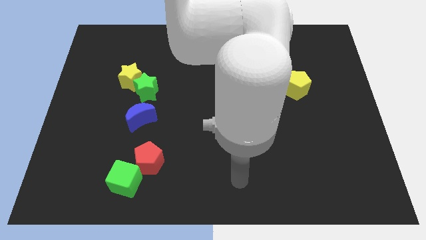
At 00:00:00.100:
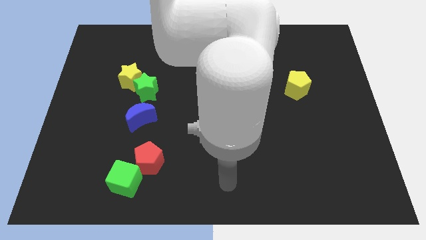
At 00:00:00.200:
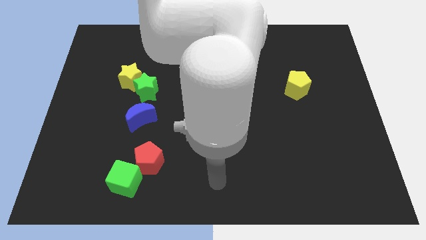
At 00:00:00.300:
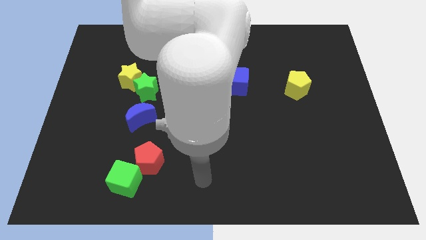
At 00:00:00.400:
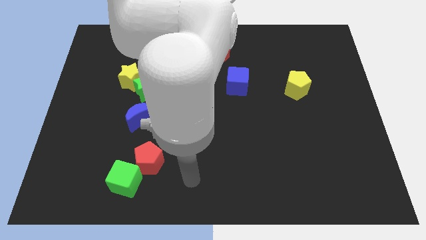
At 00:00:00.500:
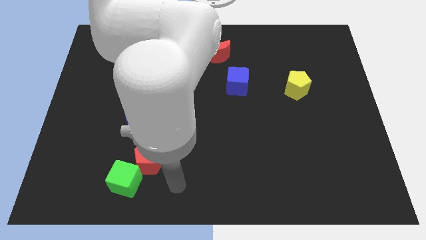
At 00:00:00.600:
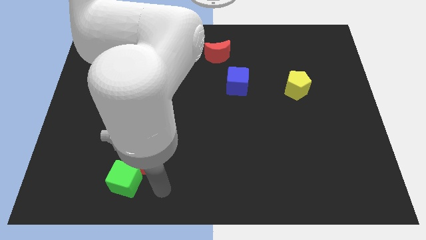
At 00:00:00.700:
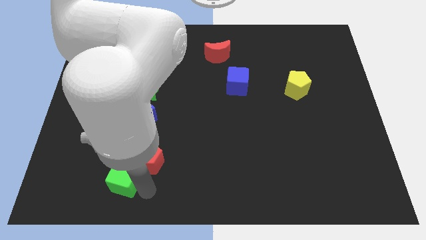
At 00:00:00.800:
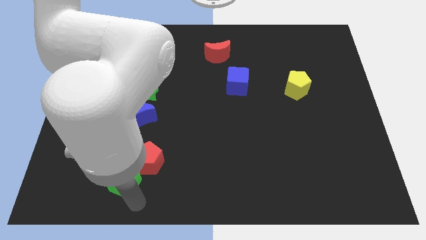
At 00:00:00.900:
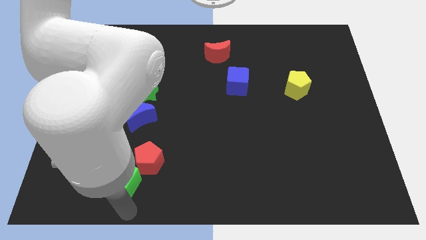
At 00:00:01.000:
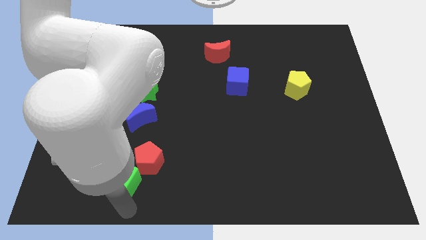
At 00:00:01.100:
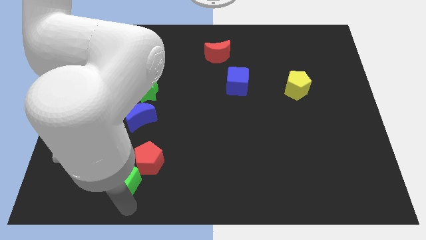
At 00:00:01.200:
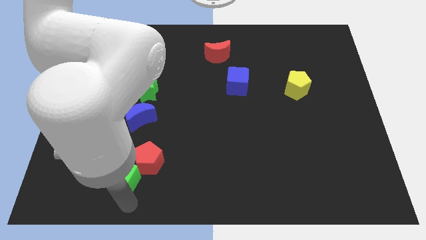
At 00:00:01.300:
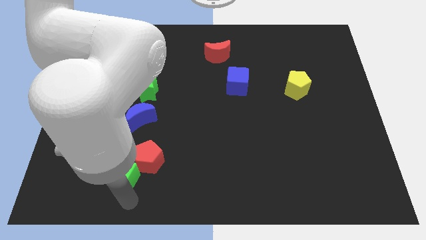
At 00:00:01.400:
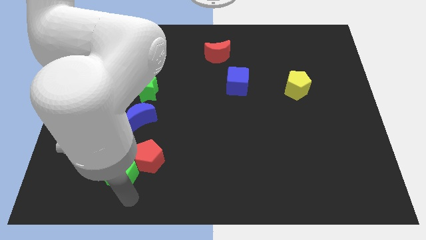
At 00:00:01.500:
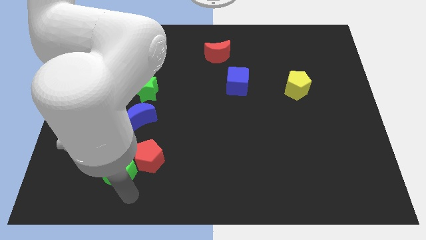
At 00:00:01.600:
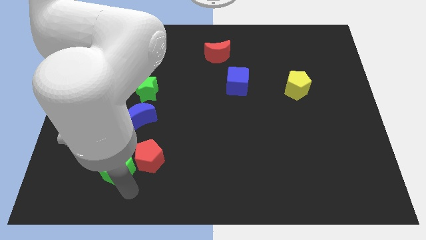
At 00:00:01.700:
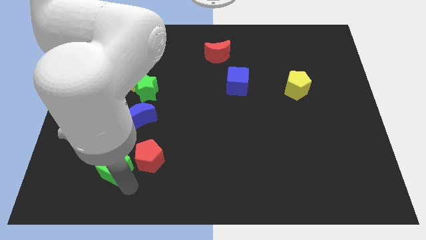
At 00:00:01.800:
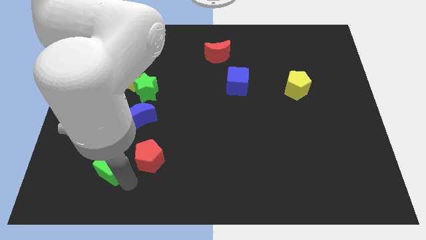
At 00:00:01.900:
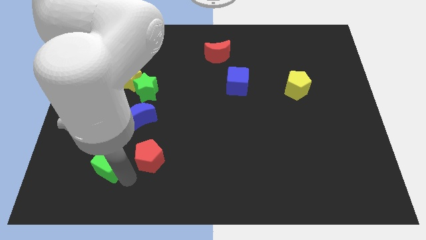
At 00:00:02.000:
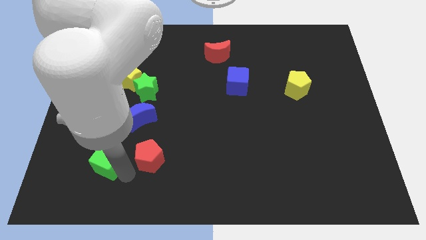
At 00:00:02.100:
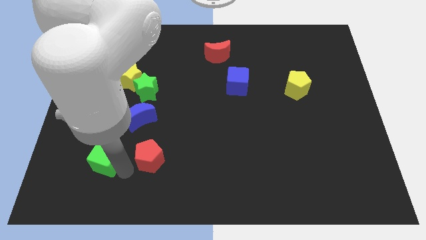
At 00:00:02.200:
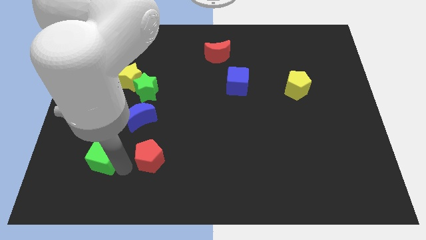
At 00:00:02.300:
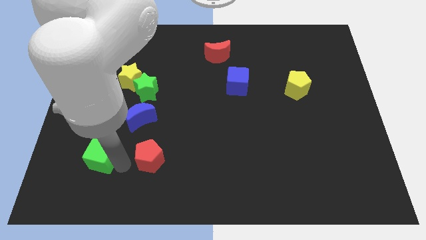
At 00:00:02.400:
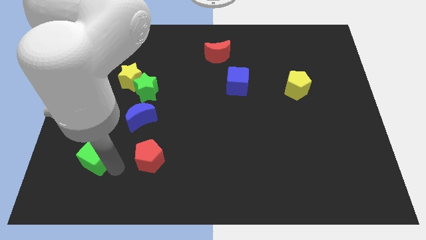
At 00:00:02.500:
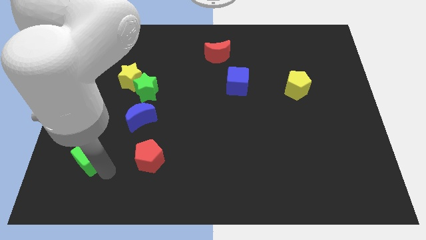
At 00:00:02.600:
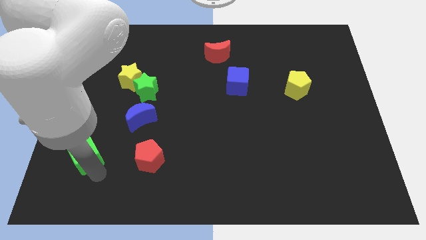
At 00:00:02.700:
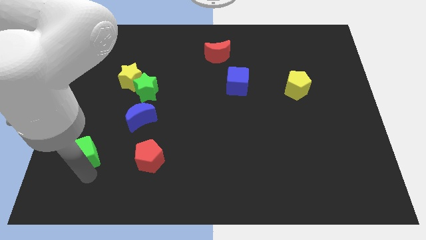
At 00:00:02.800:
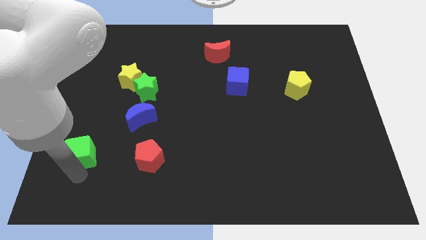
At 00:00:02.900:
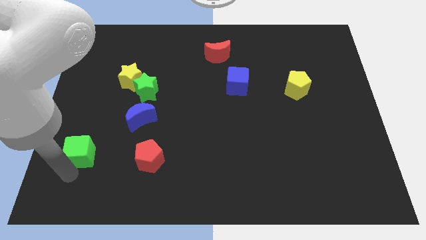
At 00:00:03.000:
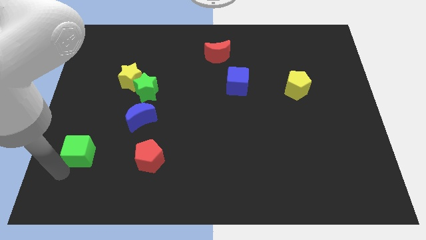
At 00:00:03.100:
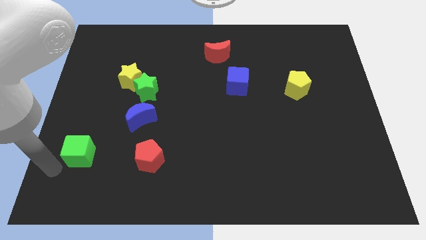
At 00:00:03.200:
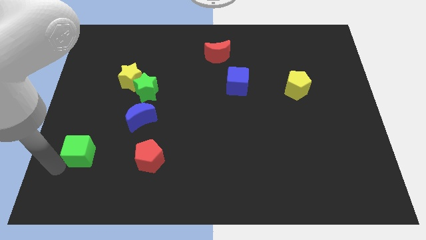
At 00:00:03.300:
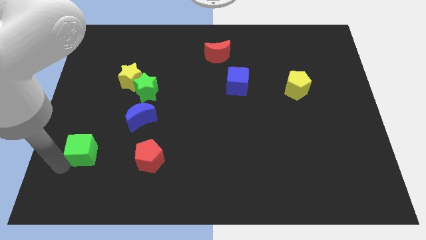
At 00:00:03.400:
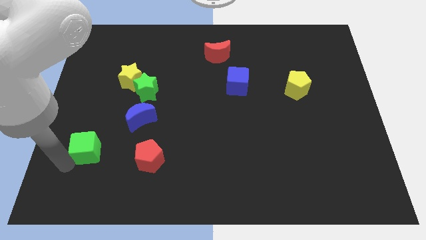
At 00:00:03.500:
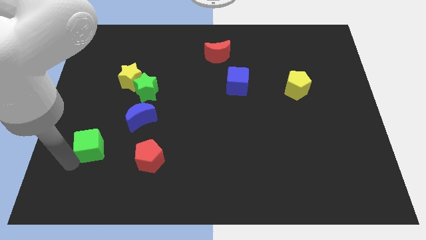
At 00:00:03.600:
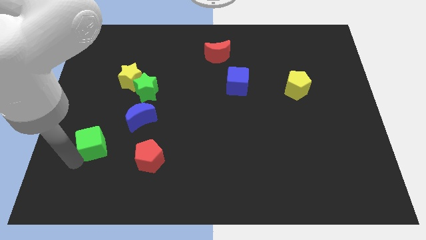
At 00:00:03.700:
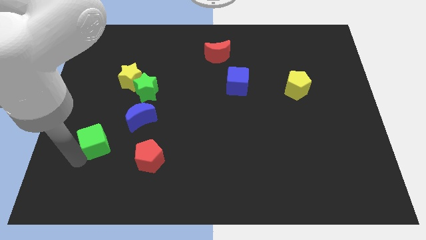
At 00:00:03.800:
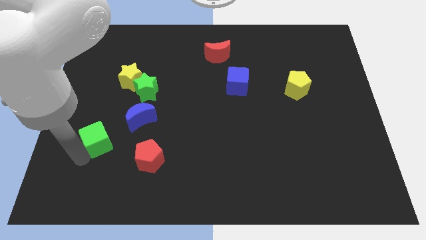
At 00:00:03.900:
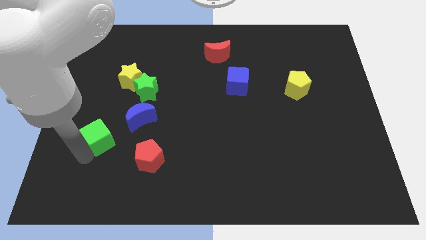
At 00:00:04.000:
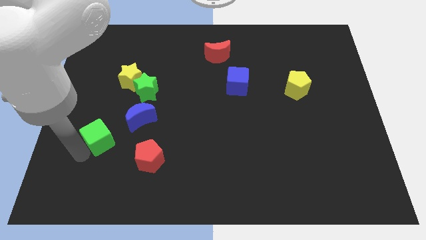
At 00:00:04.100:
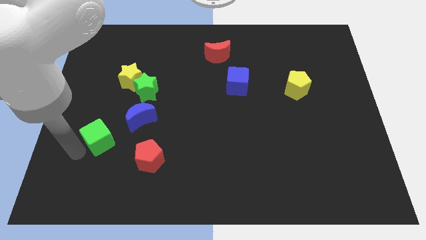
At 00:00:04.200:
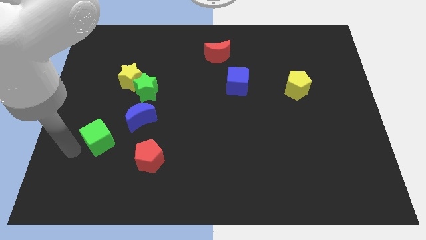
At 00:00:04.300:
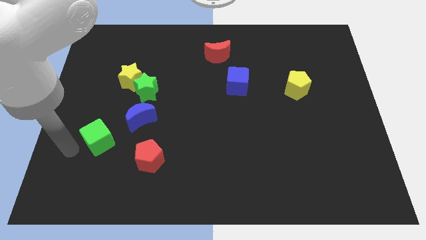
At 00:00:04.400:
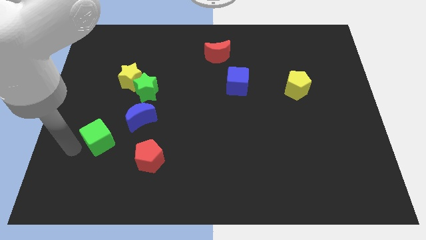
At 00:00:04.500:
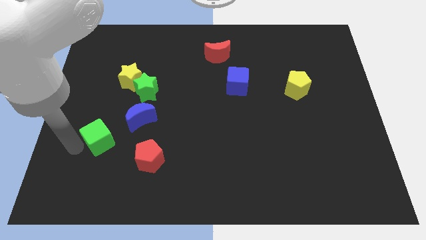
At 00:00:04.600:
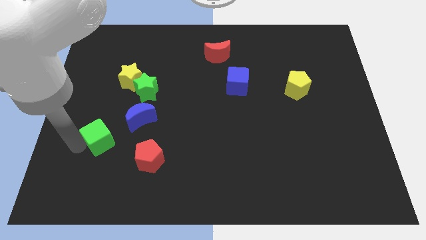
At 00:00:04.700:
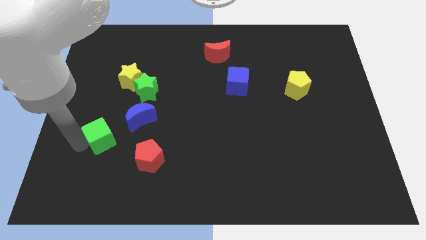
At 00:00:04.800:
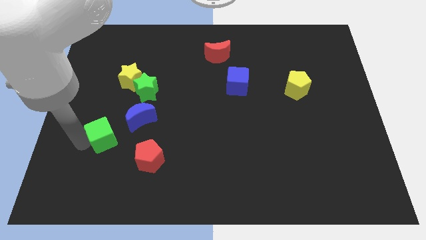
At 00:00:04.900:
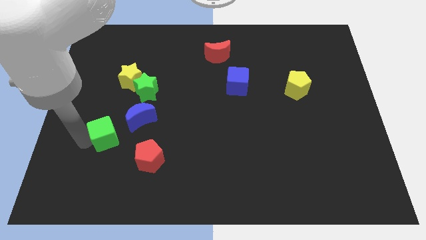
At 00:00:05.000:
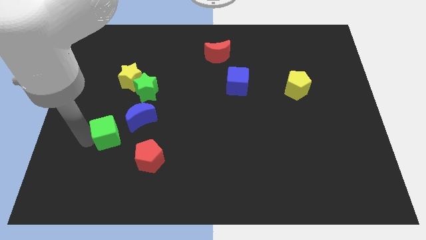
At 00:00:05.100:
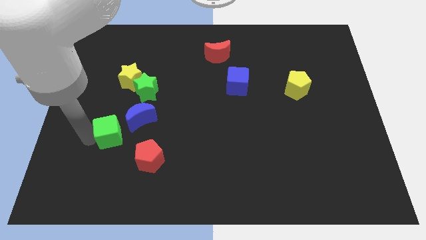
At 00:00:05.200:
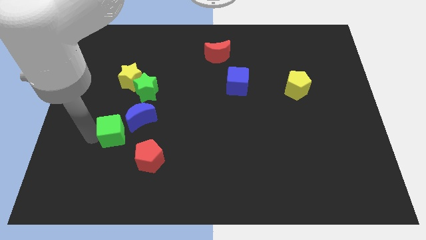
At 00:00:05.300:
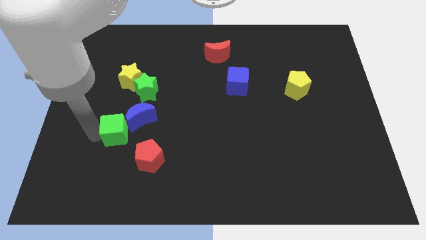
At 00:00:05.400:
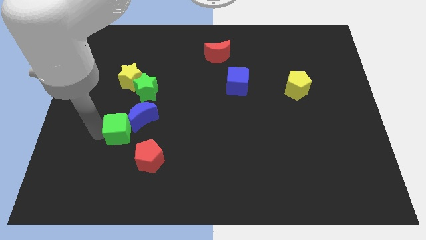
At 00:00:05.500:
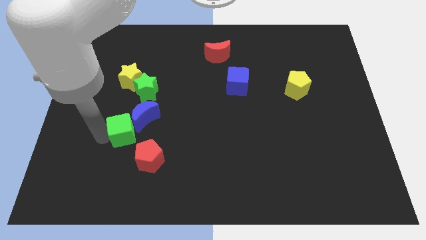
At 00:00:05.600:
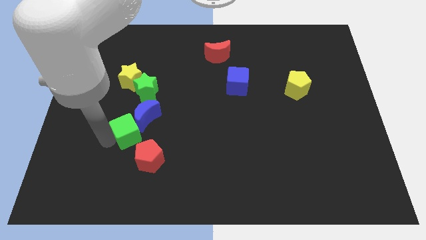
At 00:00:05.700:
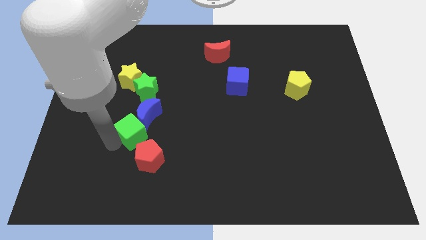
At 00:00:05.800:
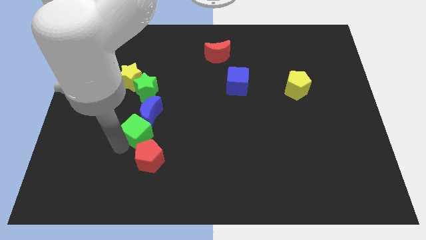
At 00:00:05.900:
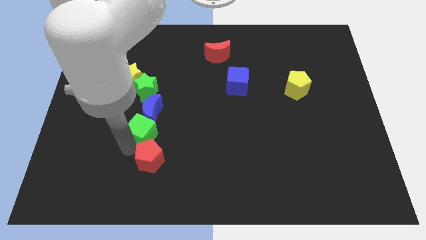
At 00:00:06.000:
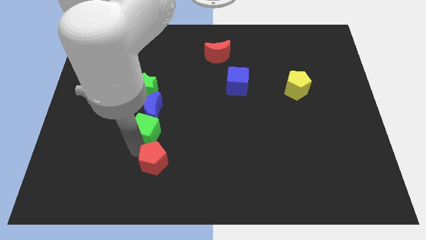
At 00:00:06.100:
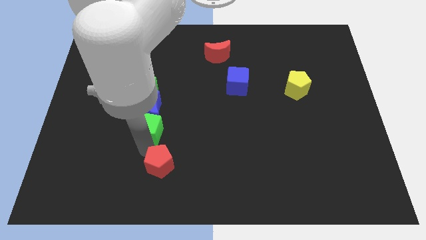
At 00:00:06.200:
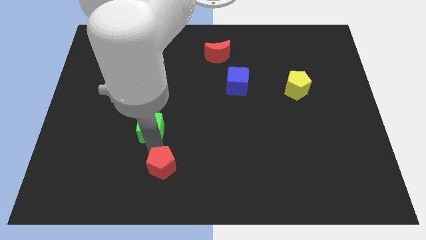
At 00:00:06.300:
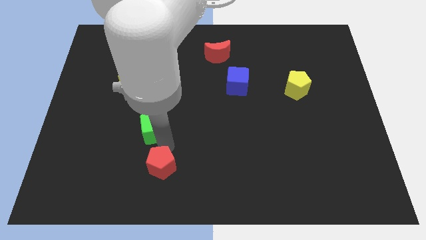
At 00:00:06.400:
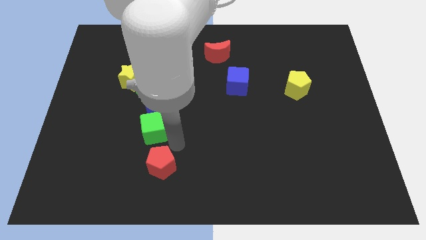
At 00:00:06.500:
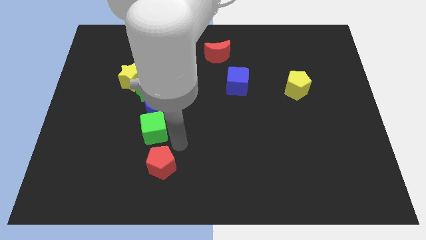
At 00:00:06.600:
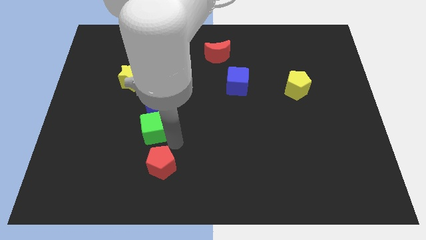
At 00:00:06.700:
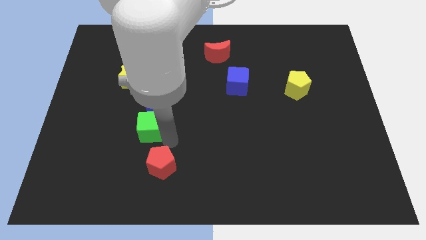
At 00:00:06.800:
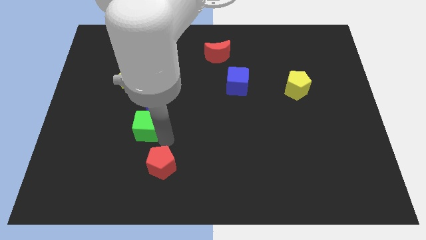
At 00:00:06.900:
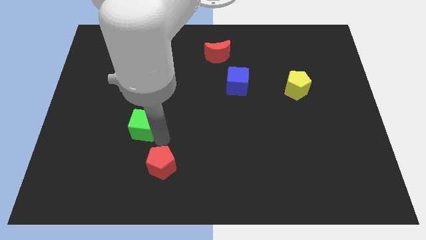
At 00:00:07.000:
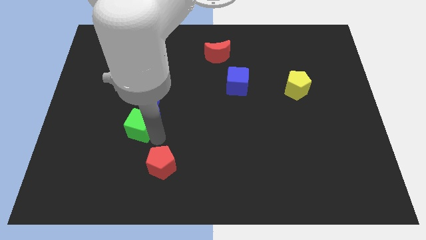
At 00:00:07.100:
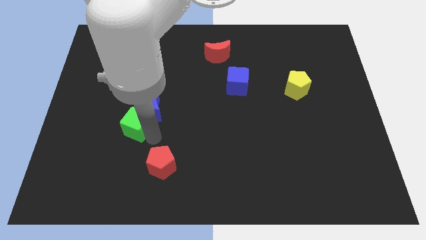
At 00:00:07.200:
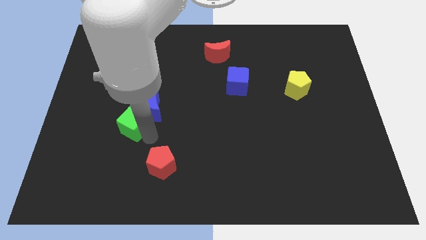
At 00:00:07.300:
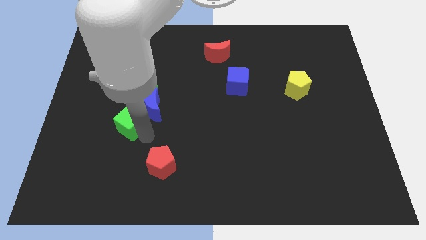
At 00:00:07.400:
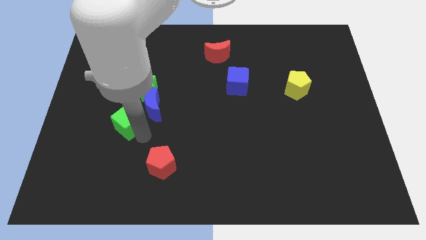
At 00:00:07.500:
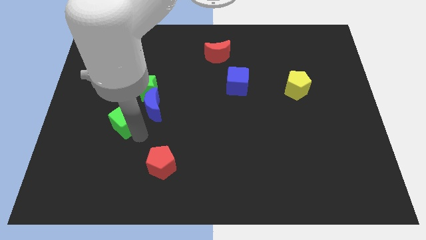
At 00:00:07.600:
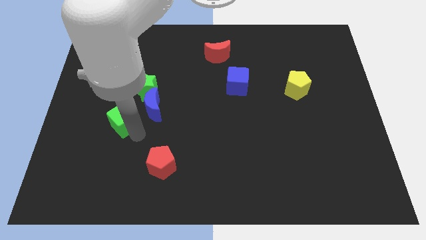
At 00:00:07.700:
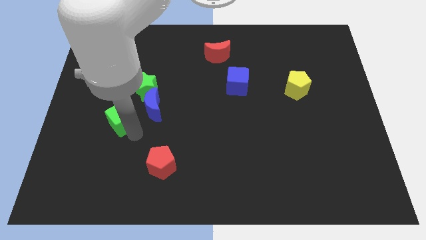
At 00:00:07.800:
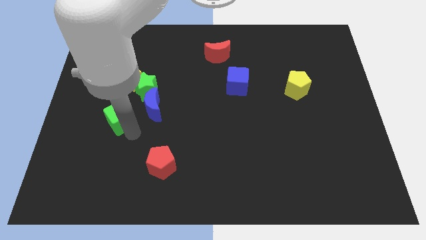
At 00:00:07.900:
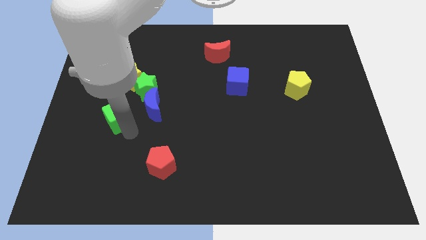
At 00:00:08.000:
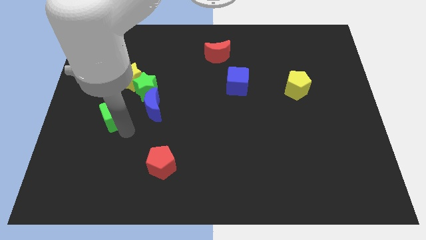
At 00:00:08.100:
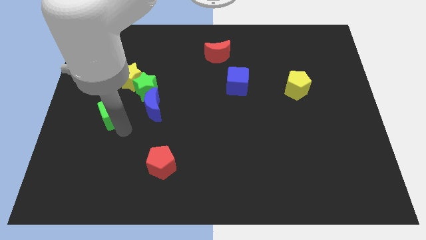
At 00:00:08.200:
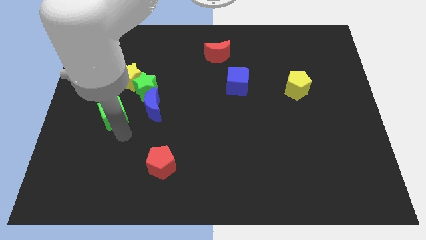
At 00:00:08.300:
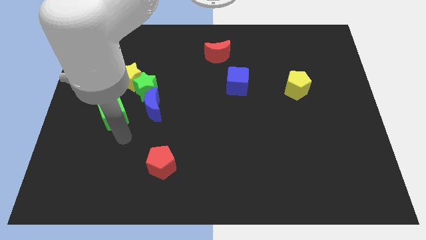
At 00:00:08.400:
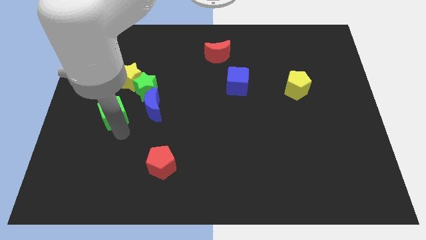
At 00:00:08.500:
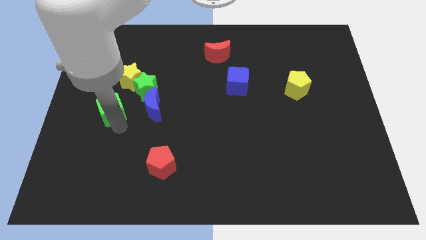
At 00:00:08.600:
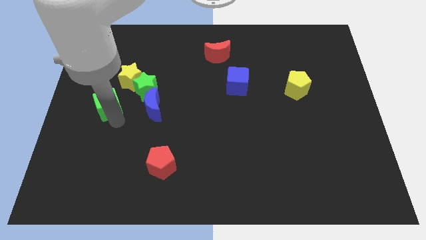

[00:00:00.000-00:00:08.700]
push the green cube to the bottom left of the yellow star
